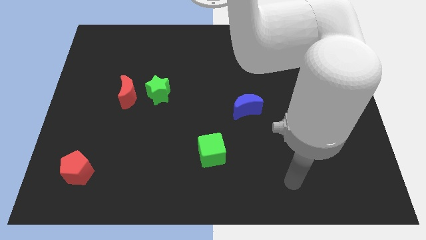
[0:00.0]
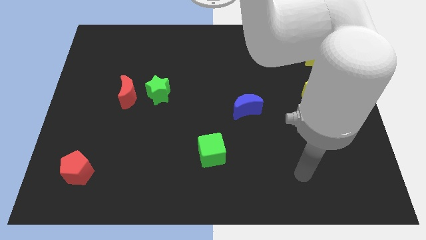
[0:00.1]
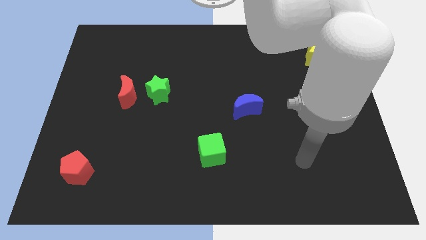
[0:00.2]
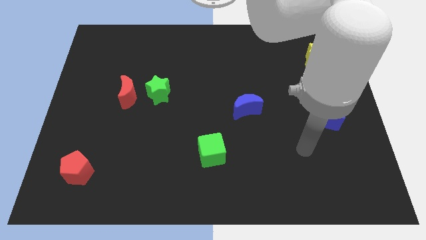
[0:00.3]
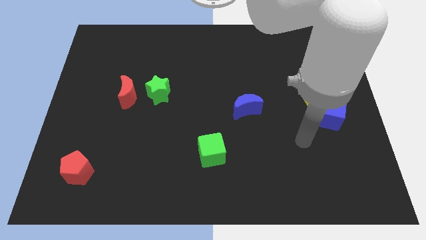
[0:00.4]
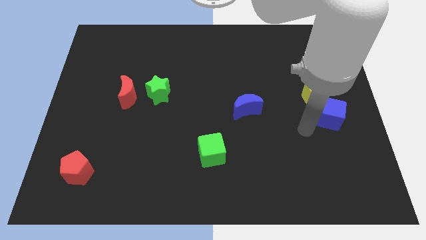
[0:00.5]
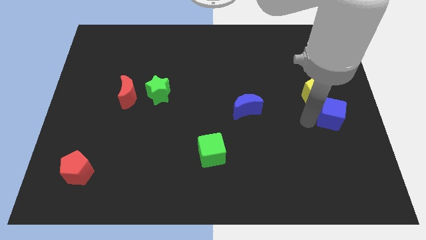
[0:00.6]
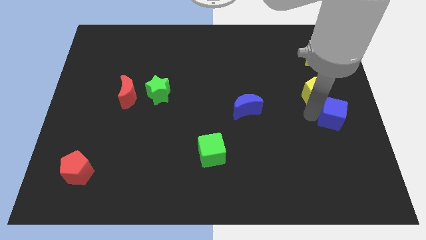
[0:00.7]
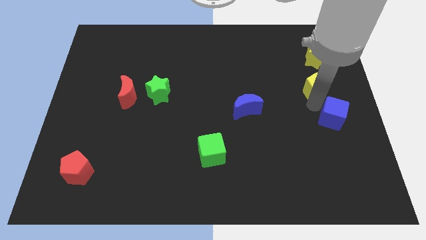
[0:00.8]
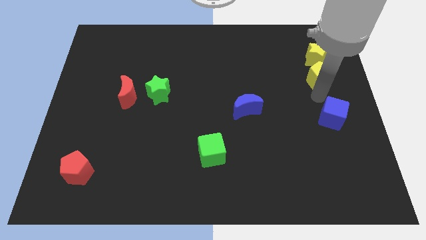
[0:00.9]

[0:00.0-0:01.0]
pull the blue cube apart from the yellow pentagon

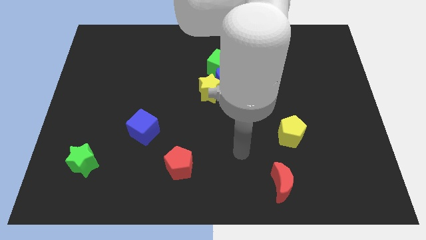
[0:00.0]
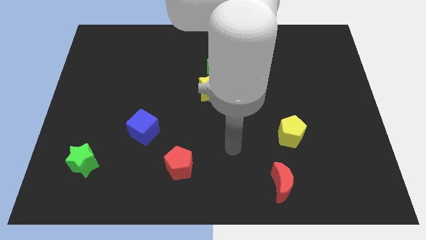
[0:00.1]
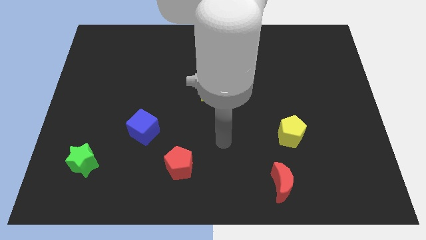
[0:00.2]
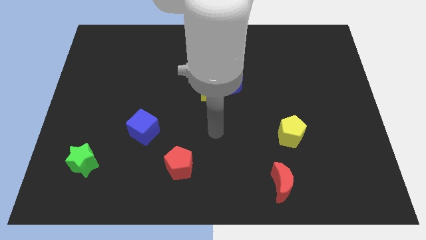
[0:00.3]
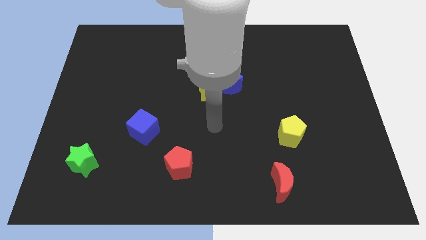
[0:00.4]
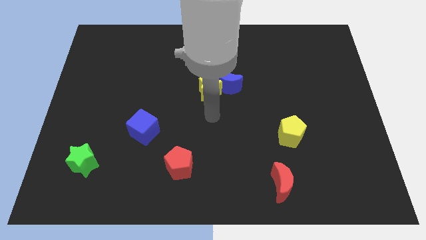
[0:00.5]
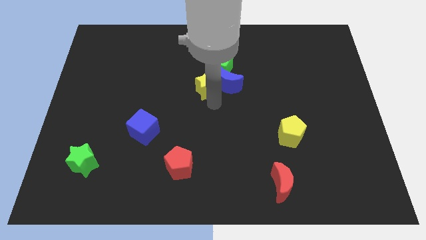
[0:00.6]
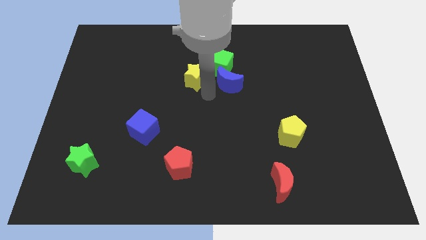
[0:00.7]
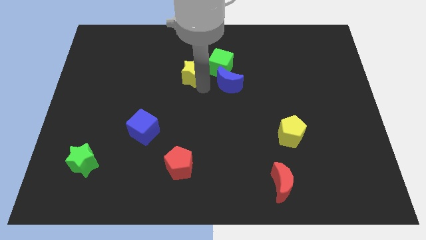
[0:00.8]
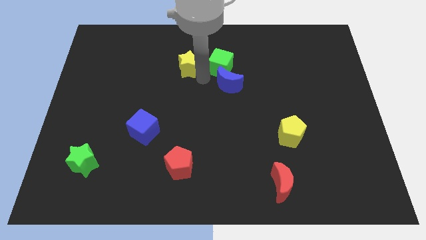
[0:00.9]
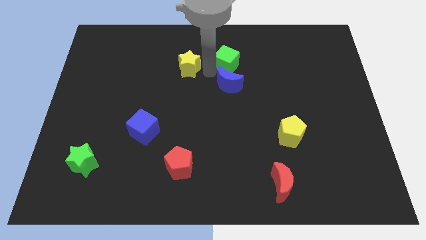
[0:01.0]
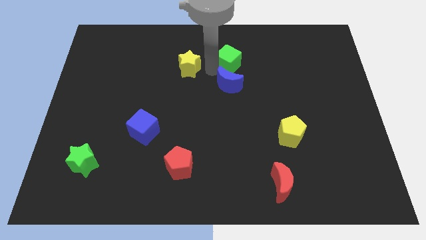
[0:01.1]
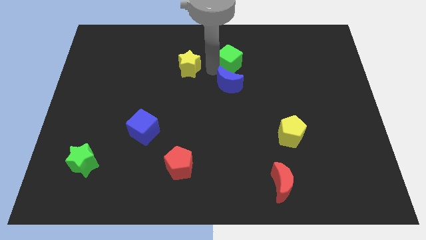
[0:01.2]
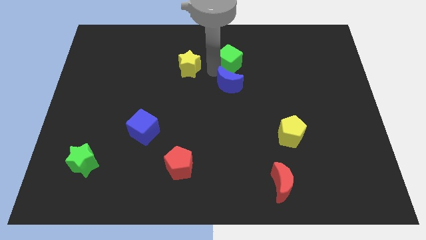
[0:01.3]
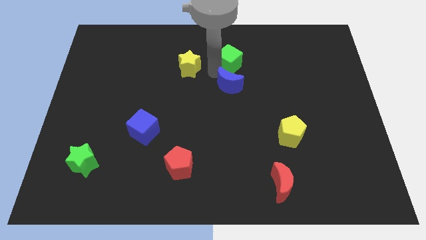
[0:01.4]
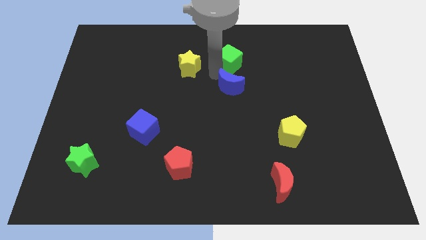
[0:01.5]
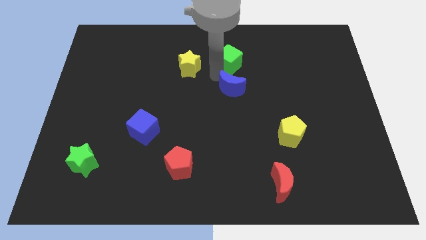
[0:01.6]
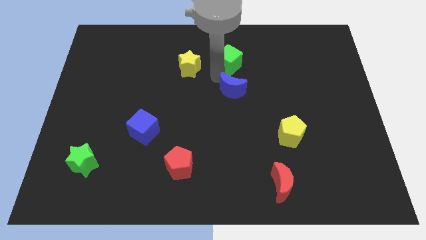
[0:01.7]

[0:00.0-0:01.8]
pull the blue moon apart from the yellow star and green cube

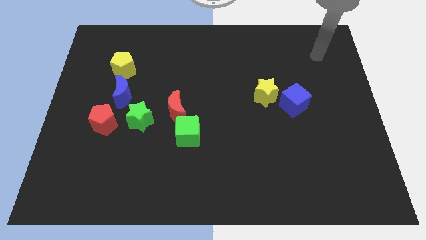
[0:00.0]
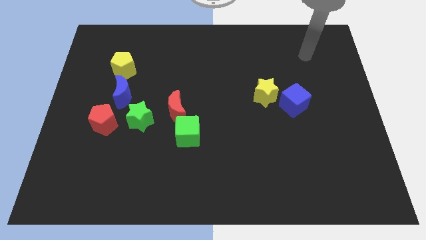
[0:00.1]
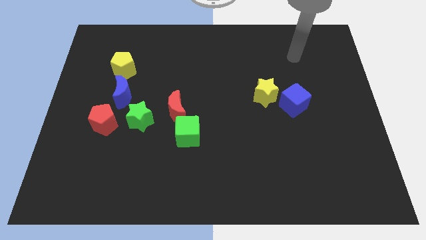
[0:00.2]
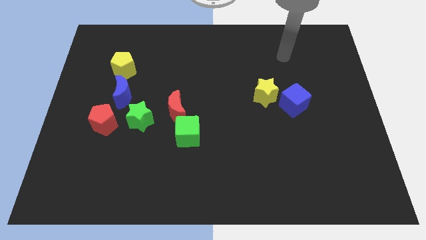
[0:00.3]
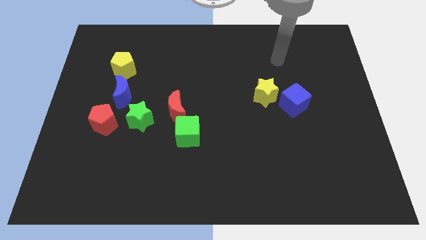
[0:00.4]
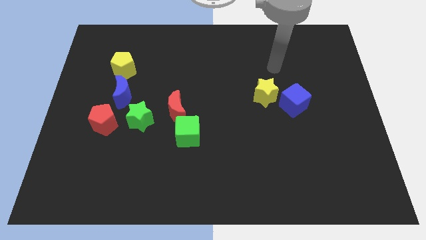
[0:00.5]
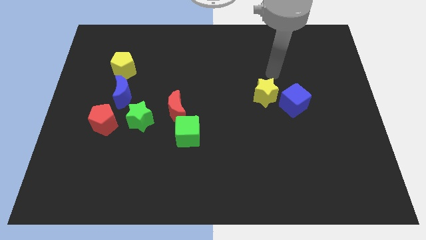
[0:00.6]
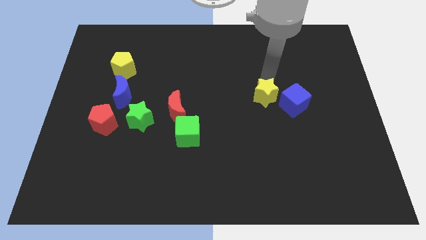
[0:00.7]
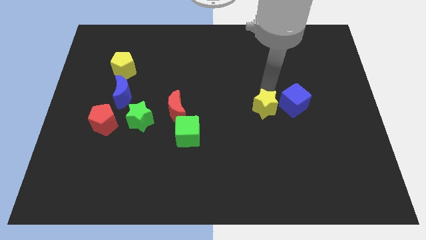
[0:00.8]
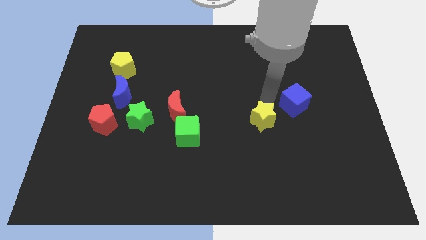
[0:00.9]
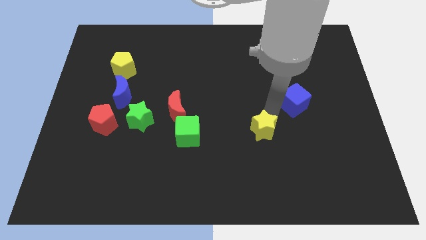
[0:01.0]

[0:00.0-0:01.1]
separate the blue cube from the yellow star

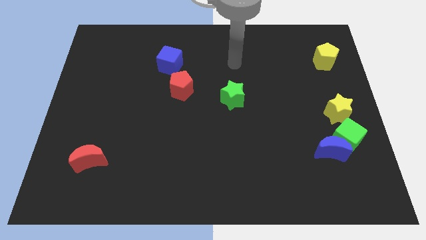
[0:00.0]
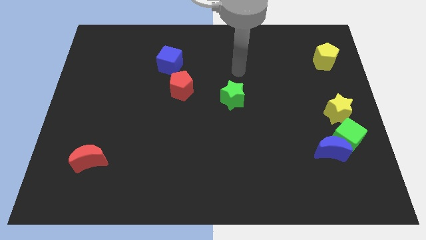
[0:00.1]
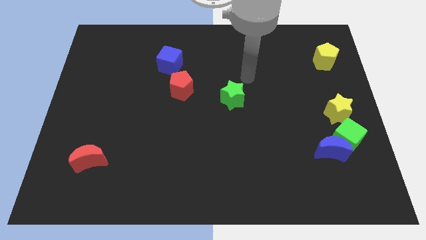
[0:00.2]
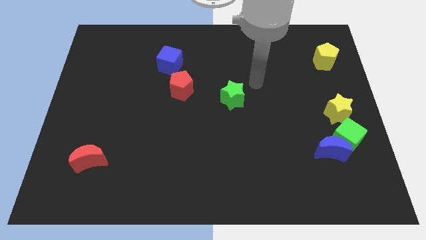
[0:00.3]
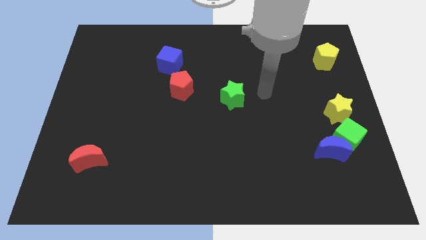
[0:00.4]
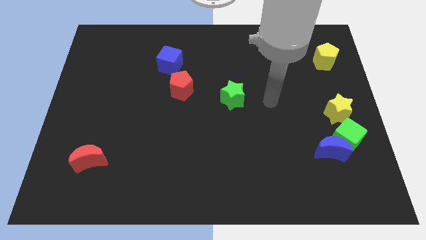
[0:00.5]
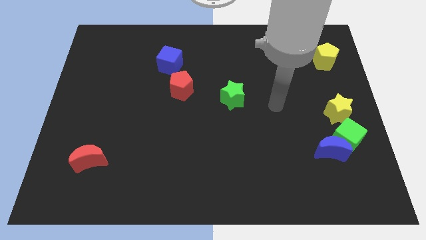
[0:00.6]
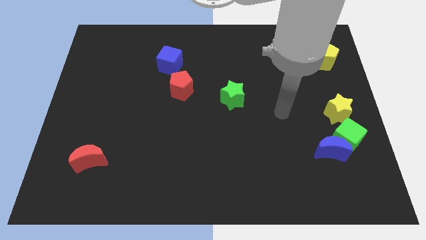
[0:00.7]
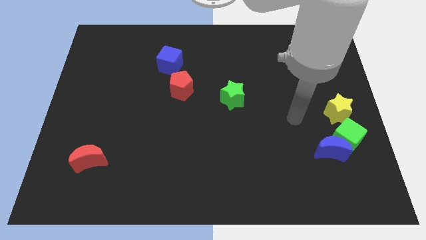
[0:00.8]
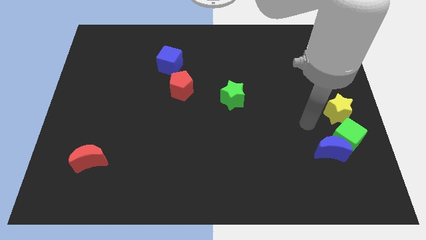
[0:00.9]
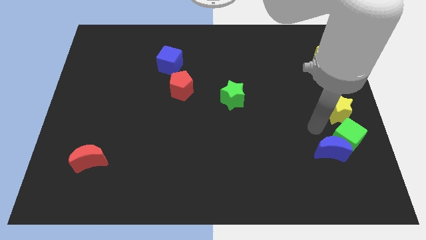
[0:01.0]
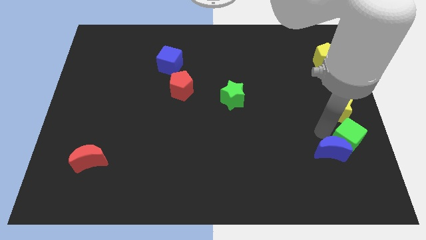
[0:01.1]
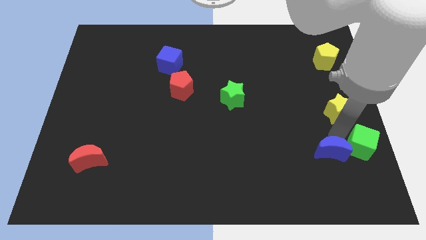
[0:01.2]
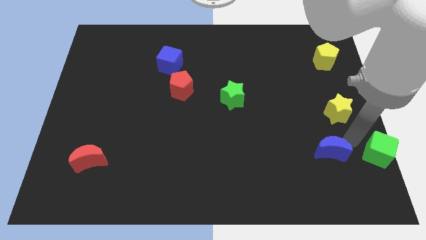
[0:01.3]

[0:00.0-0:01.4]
pull the blue moon apart from the green cube

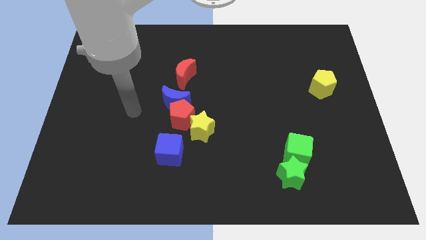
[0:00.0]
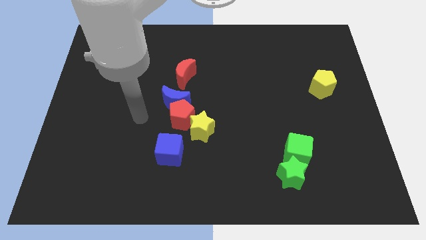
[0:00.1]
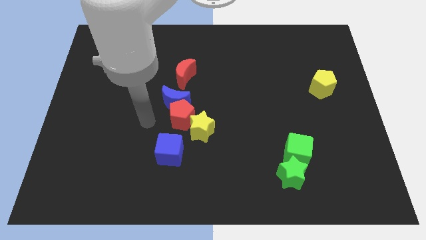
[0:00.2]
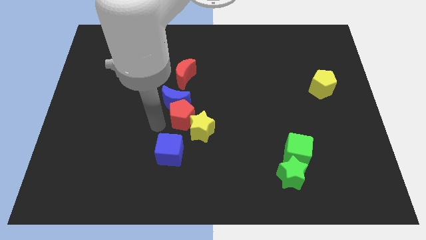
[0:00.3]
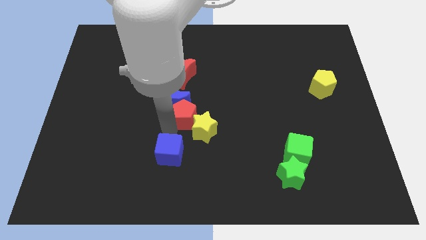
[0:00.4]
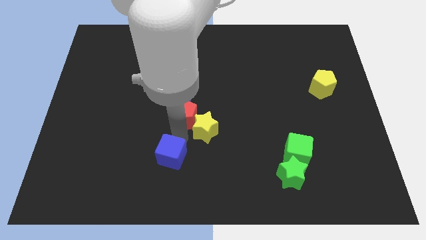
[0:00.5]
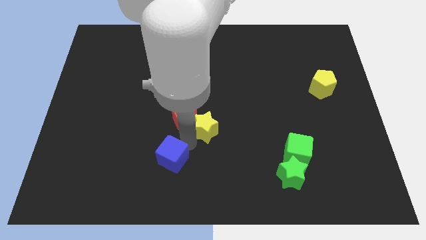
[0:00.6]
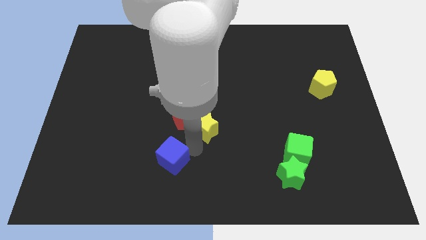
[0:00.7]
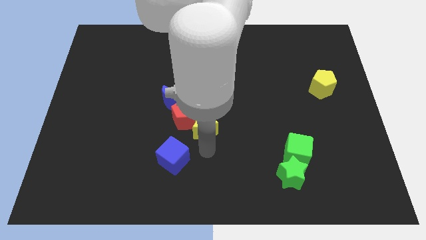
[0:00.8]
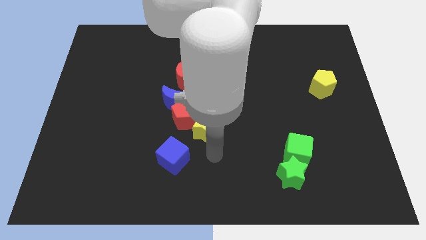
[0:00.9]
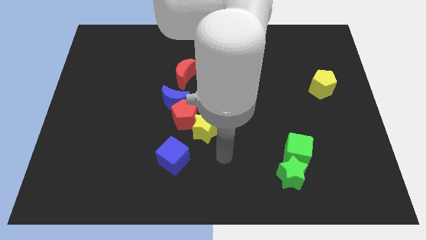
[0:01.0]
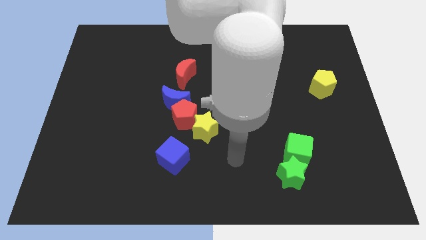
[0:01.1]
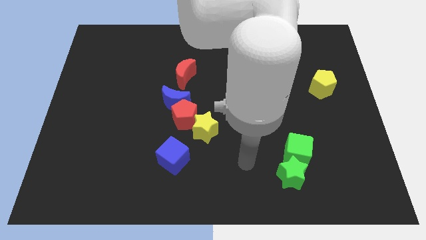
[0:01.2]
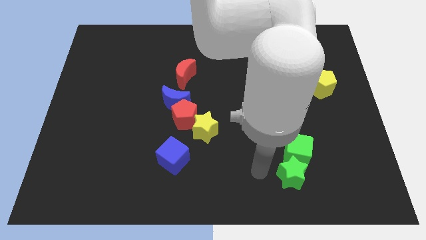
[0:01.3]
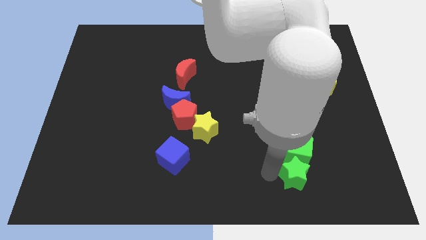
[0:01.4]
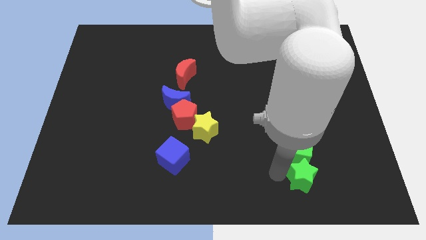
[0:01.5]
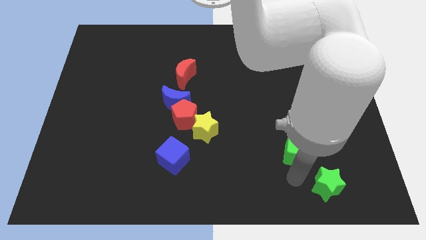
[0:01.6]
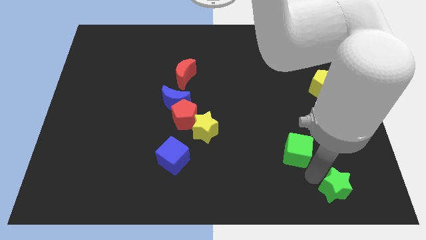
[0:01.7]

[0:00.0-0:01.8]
move the green cube away from the green star

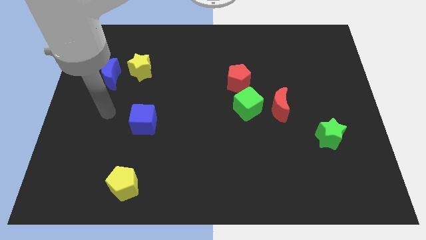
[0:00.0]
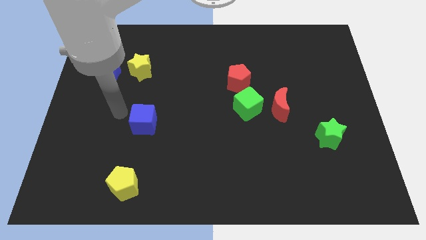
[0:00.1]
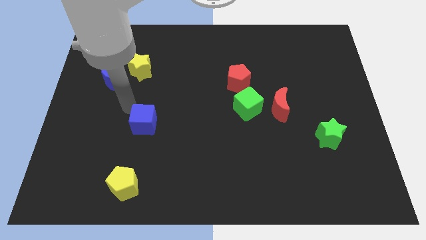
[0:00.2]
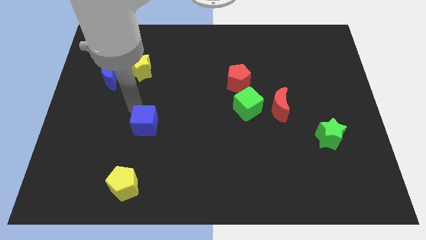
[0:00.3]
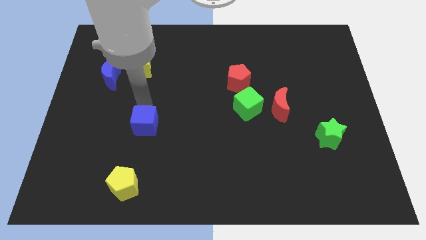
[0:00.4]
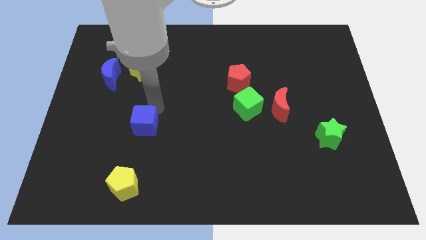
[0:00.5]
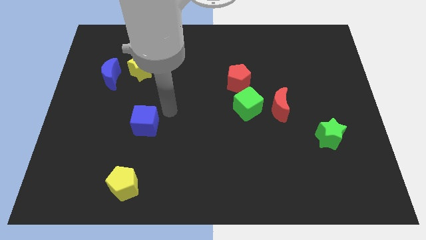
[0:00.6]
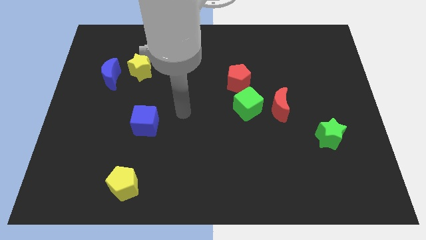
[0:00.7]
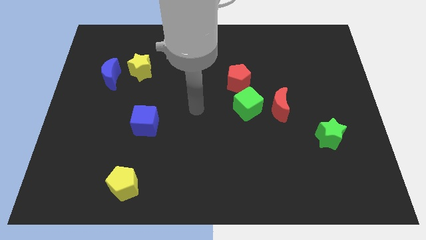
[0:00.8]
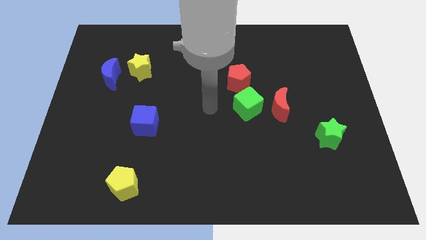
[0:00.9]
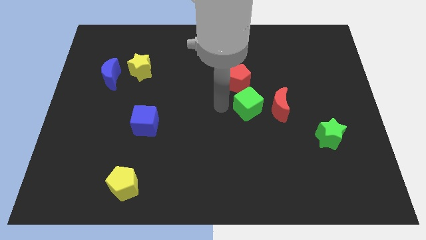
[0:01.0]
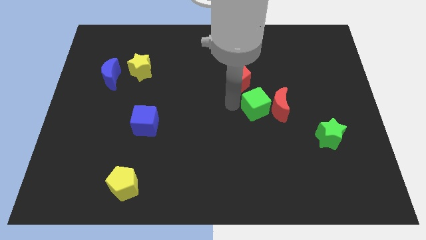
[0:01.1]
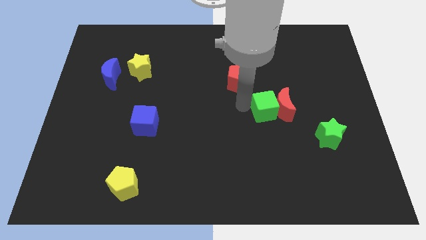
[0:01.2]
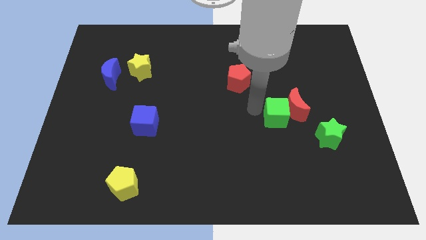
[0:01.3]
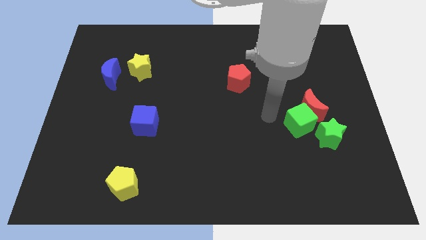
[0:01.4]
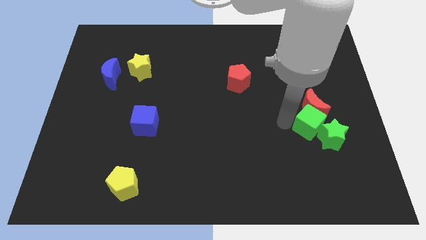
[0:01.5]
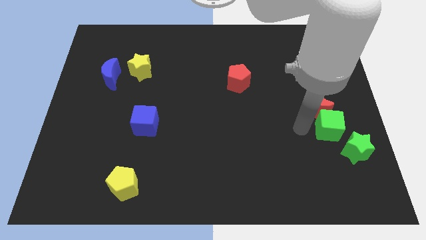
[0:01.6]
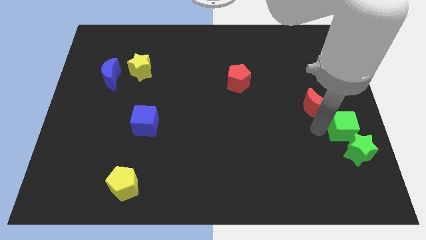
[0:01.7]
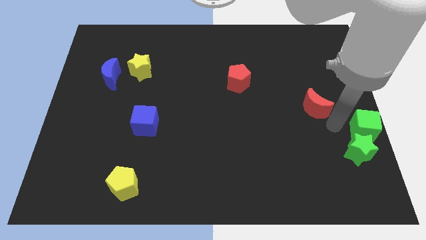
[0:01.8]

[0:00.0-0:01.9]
pull the red moon apart from the green cube

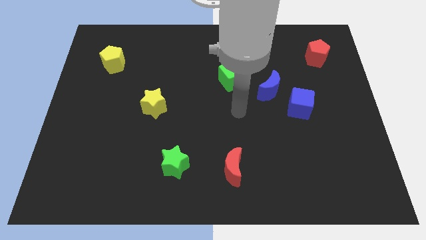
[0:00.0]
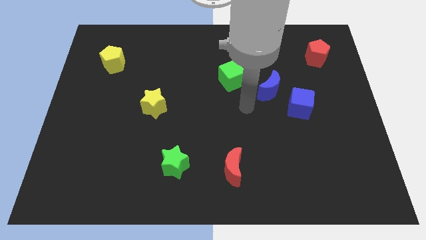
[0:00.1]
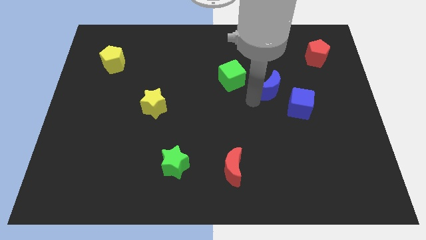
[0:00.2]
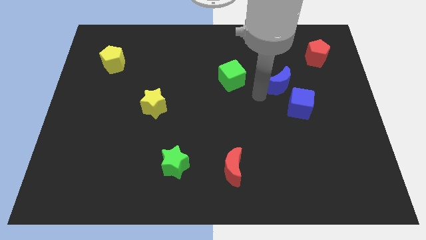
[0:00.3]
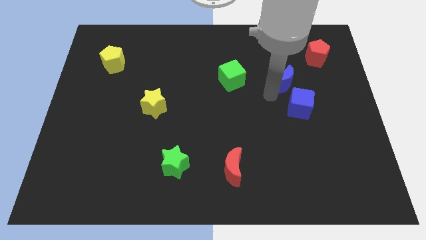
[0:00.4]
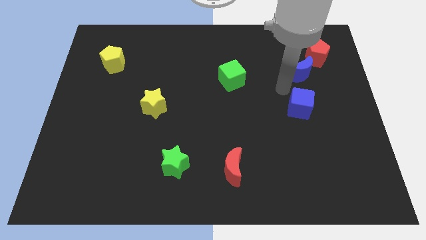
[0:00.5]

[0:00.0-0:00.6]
separate the blue cube from the blue moon
